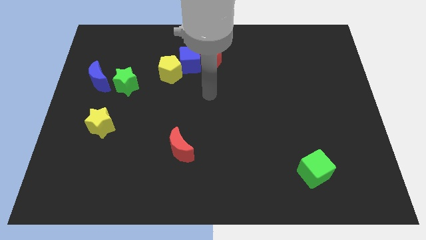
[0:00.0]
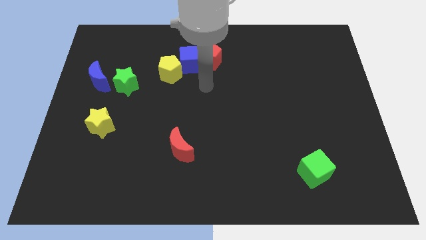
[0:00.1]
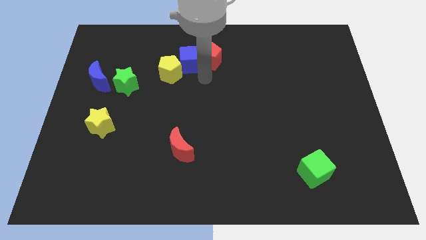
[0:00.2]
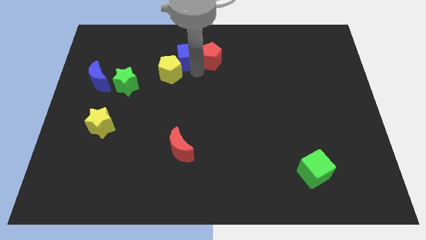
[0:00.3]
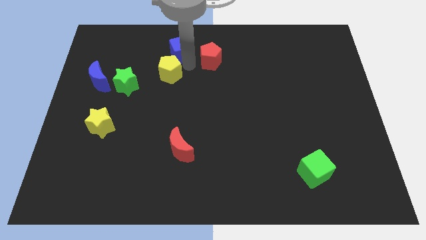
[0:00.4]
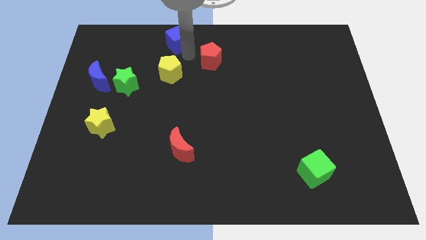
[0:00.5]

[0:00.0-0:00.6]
pull the red pentagon apart from the blue cube

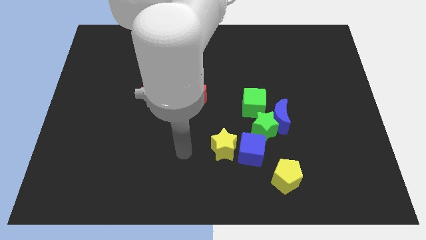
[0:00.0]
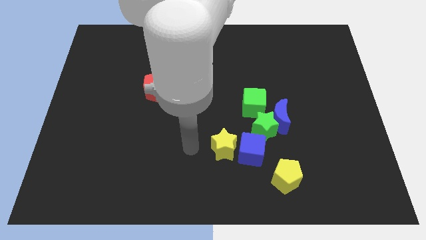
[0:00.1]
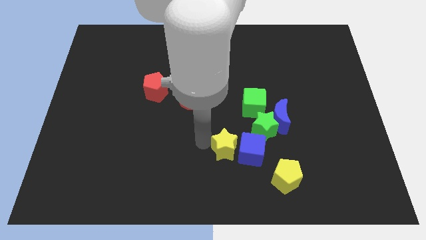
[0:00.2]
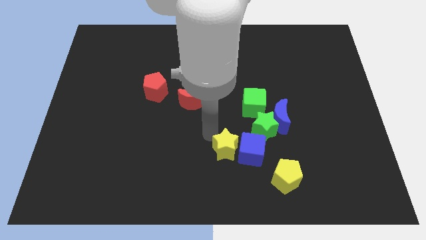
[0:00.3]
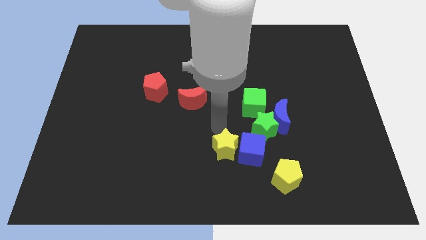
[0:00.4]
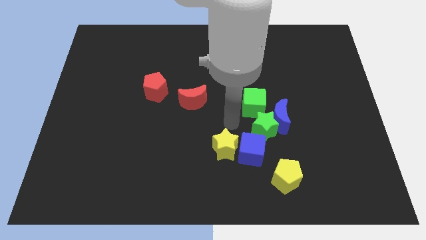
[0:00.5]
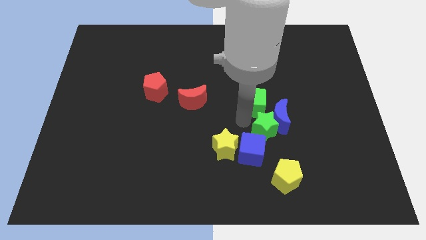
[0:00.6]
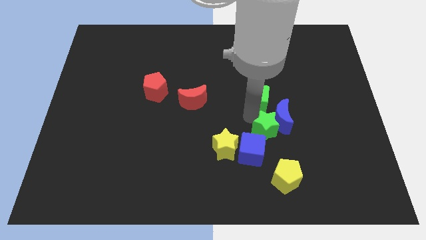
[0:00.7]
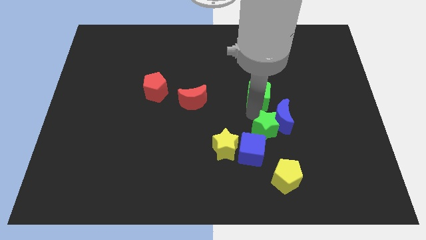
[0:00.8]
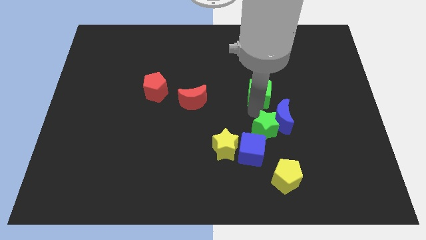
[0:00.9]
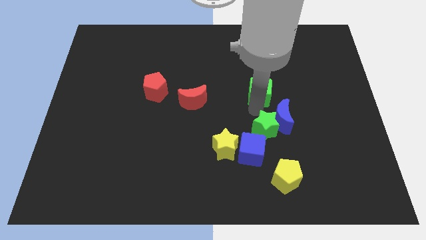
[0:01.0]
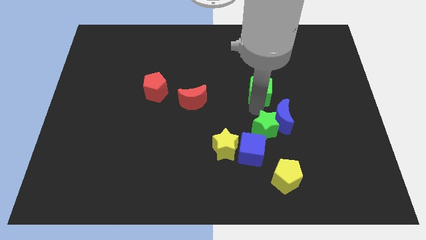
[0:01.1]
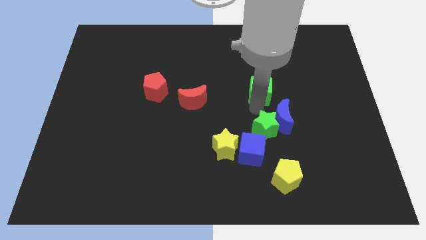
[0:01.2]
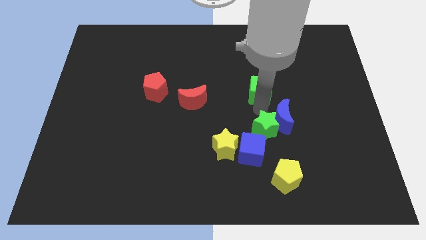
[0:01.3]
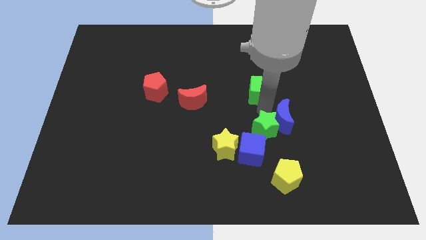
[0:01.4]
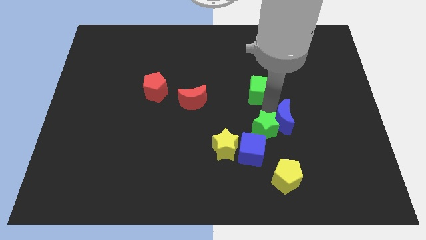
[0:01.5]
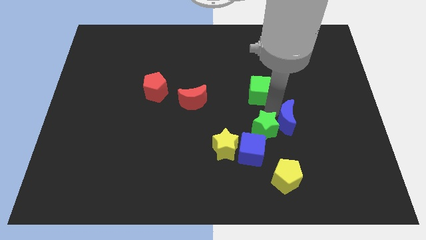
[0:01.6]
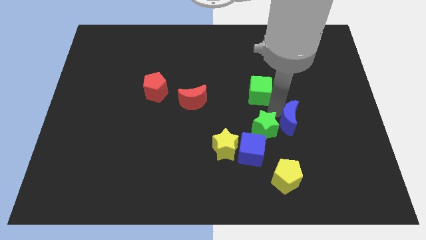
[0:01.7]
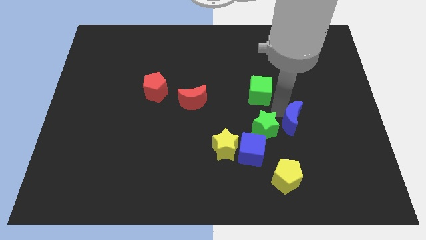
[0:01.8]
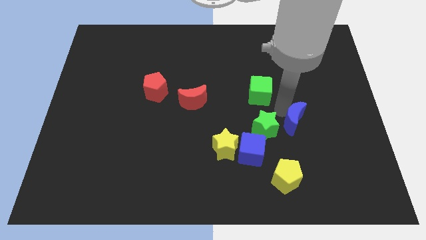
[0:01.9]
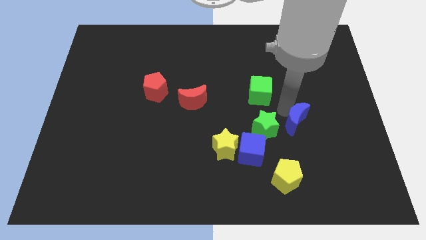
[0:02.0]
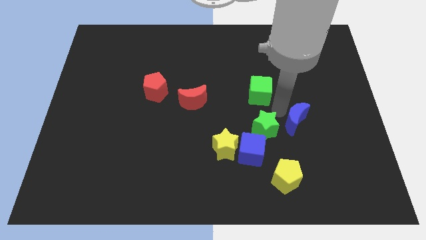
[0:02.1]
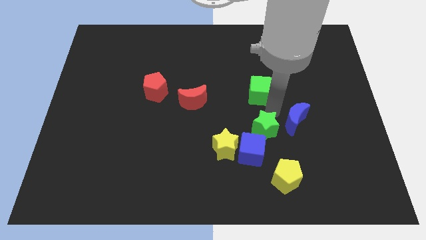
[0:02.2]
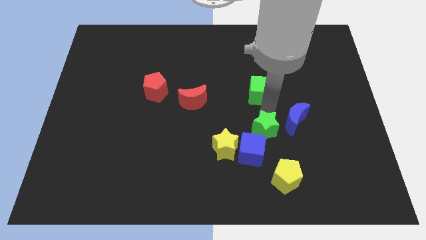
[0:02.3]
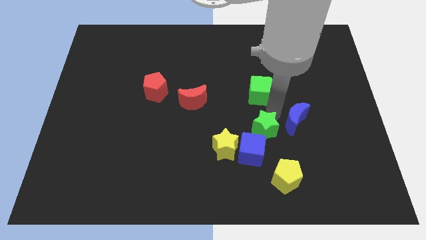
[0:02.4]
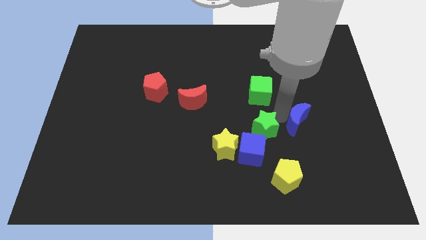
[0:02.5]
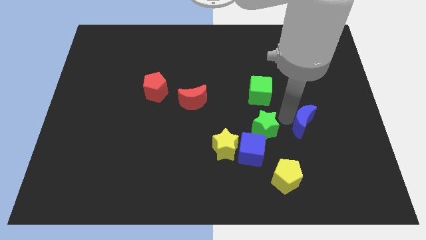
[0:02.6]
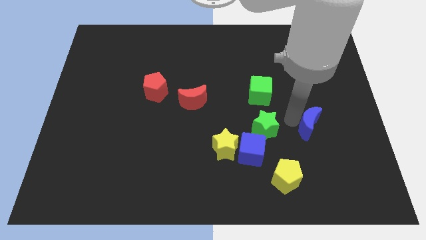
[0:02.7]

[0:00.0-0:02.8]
separate the blue moon from the green star and green cube

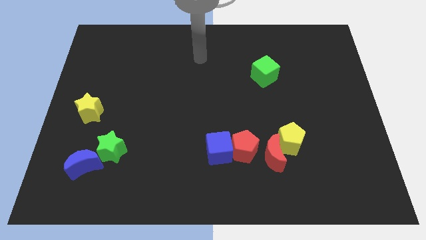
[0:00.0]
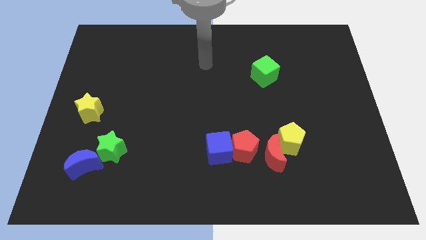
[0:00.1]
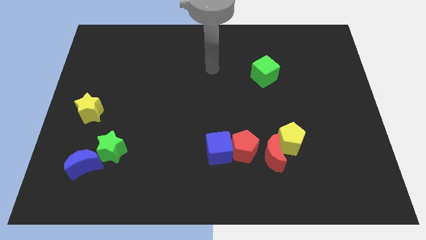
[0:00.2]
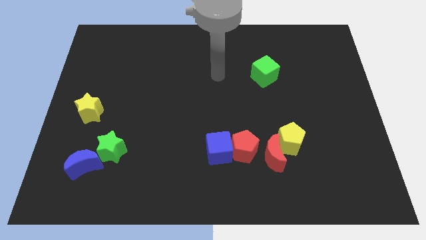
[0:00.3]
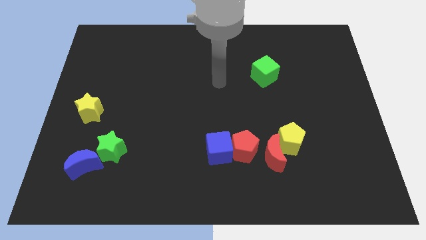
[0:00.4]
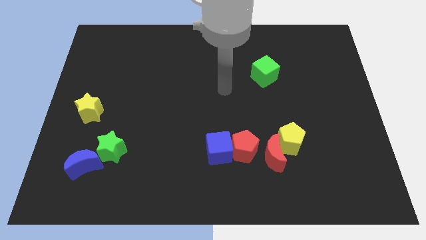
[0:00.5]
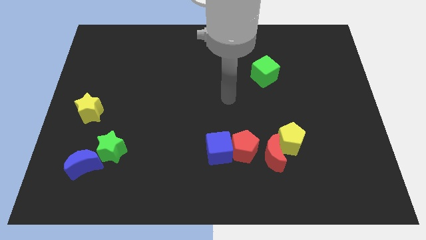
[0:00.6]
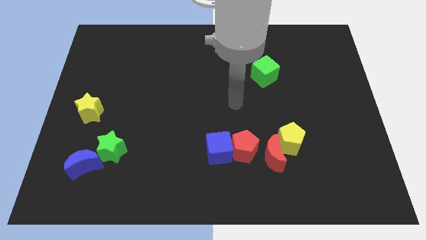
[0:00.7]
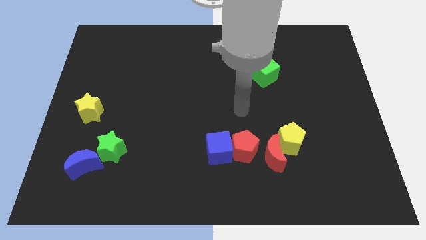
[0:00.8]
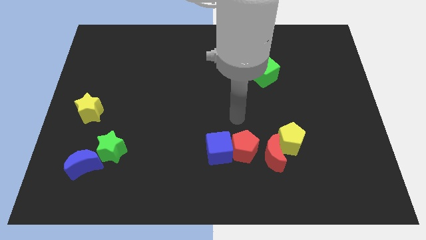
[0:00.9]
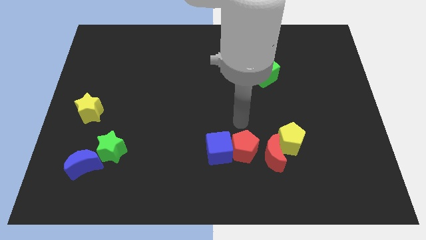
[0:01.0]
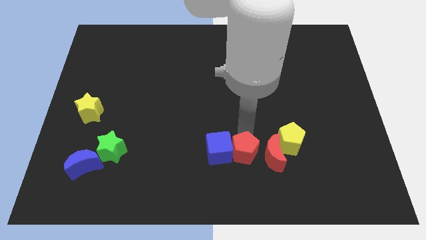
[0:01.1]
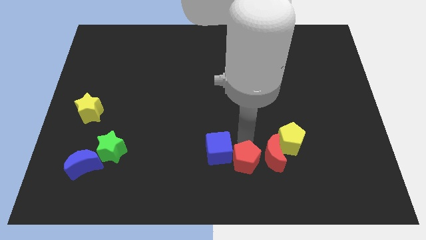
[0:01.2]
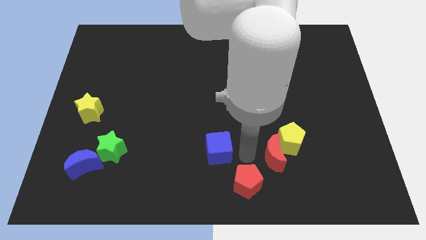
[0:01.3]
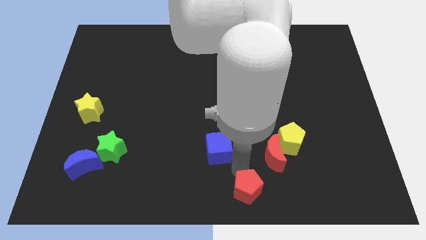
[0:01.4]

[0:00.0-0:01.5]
pull the blue cube apart from the red pentagon

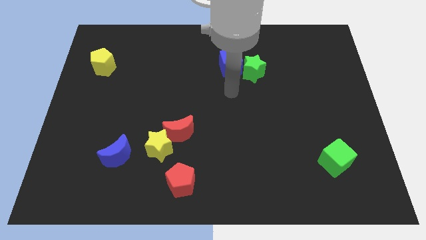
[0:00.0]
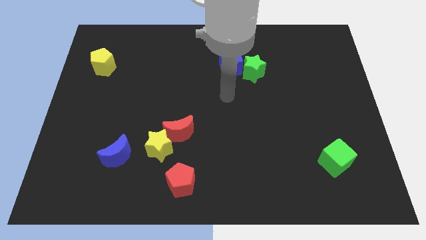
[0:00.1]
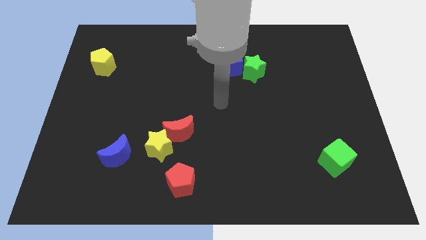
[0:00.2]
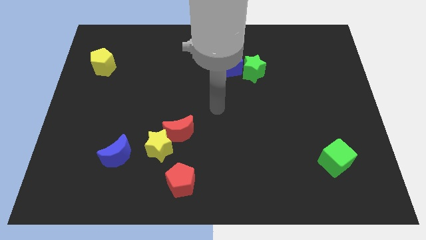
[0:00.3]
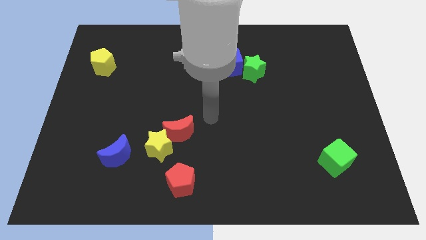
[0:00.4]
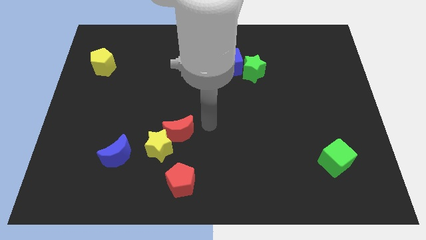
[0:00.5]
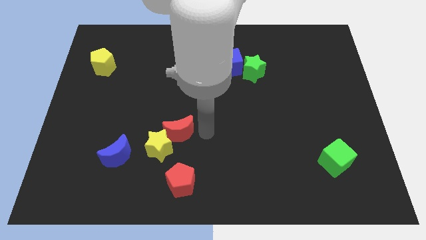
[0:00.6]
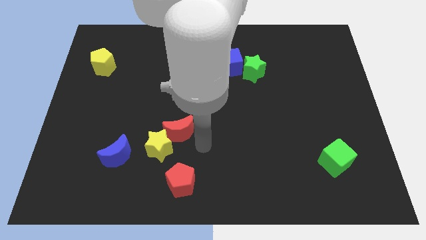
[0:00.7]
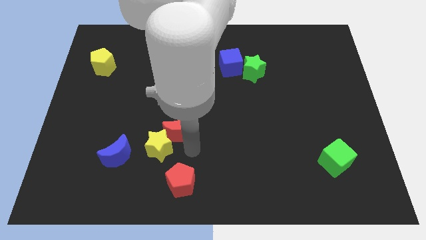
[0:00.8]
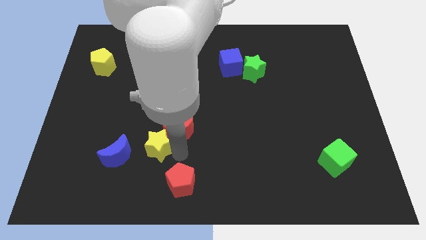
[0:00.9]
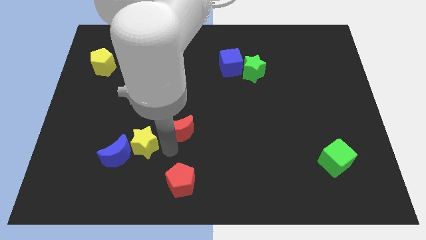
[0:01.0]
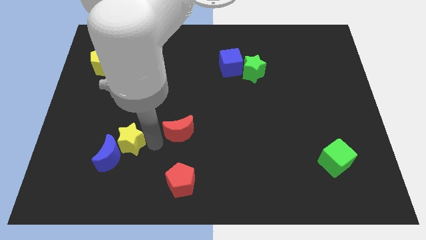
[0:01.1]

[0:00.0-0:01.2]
move the red moon away from the yellow star

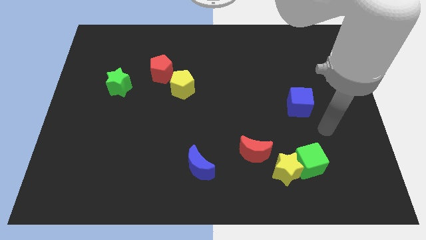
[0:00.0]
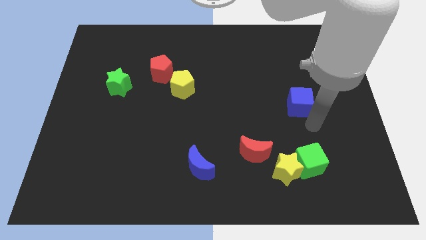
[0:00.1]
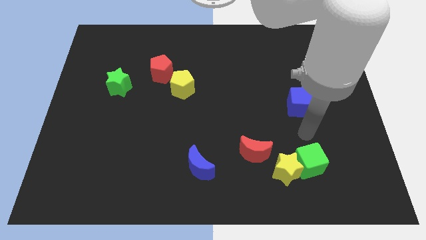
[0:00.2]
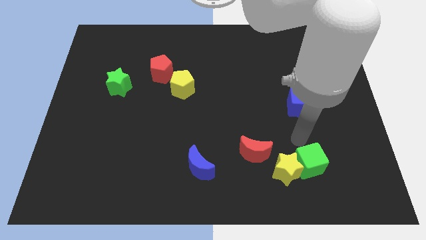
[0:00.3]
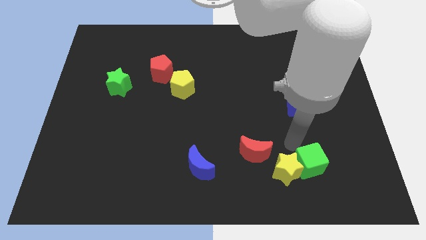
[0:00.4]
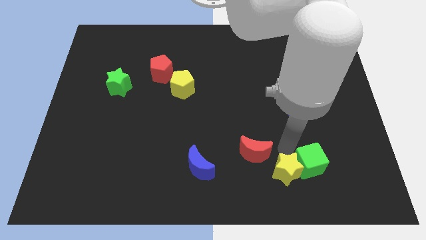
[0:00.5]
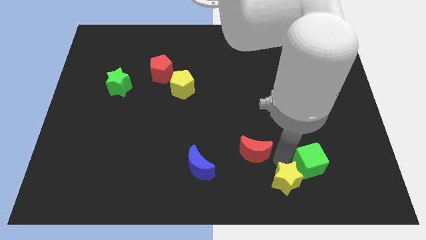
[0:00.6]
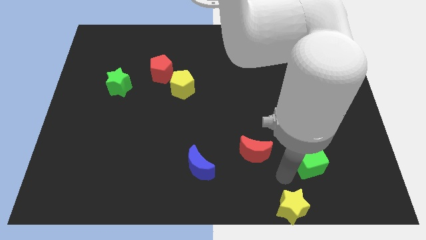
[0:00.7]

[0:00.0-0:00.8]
move the green cube away from the yellow star

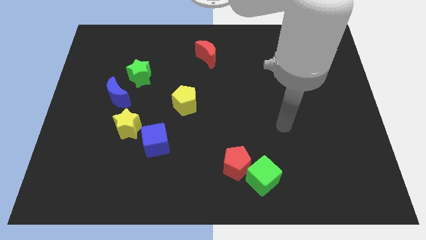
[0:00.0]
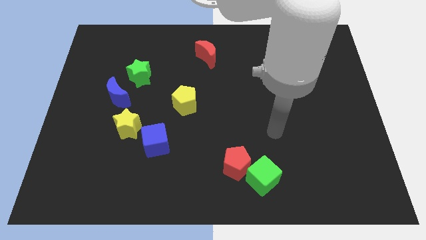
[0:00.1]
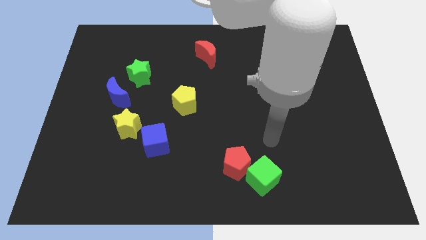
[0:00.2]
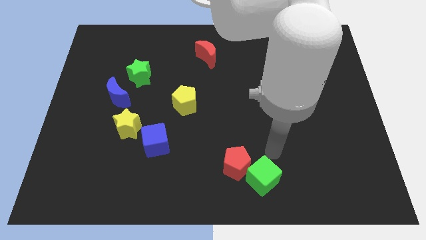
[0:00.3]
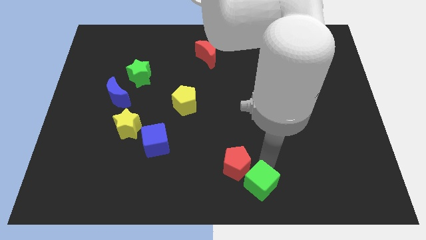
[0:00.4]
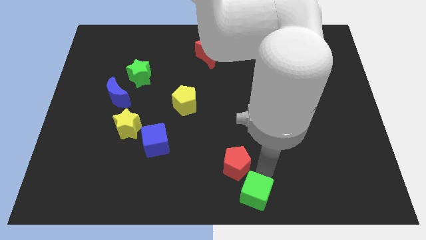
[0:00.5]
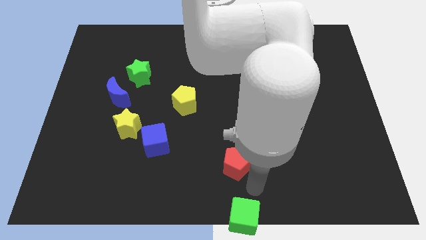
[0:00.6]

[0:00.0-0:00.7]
move the red pentagon away from the green cube

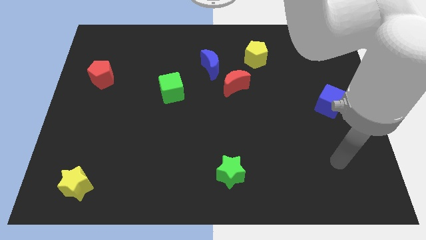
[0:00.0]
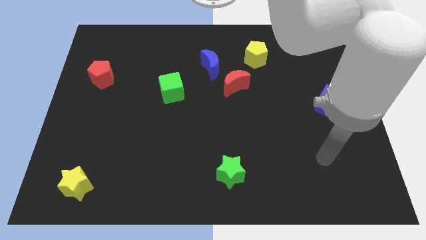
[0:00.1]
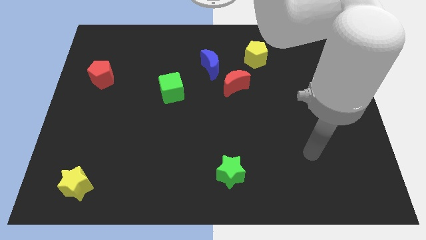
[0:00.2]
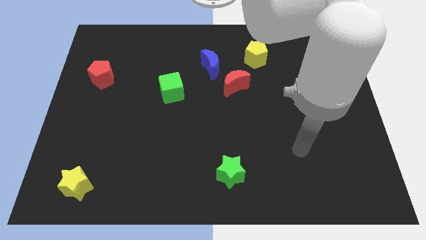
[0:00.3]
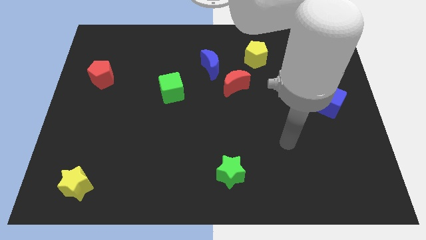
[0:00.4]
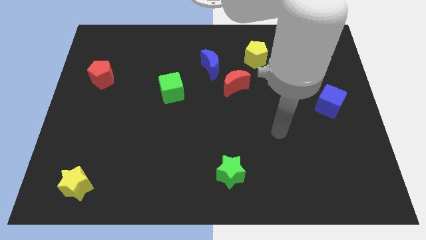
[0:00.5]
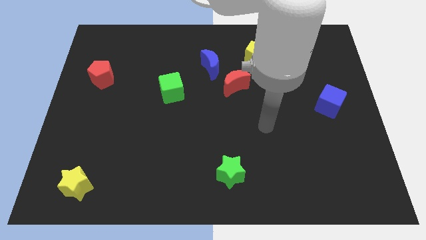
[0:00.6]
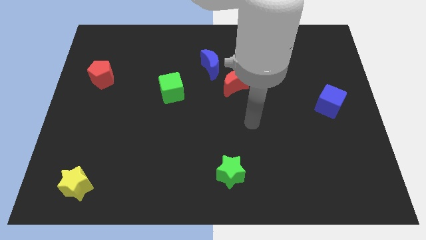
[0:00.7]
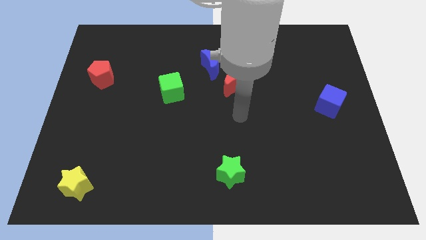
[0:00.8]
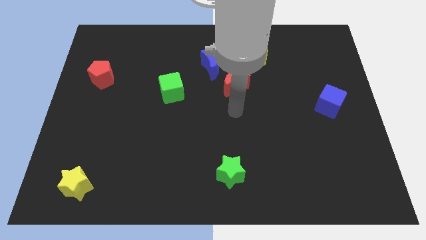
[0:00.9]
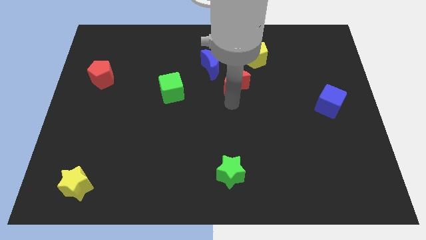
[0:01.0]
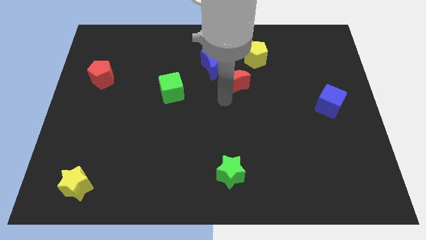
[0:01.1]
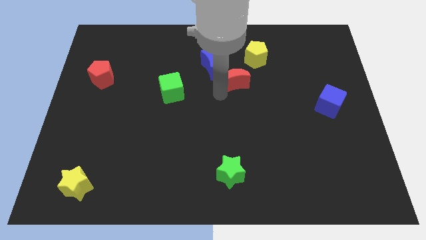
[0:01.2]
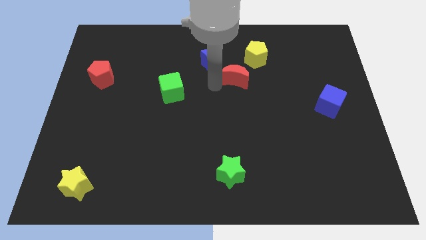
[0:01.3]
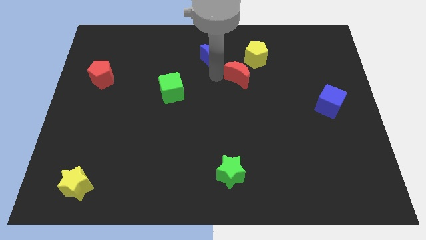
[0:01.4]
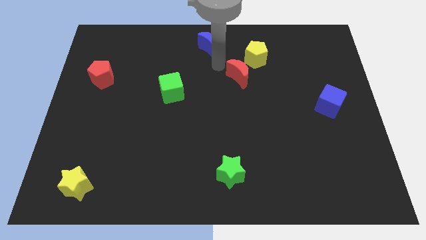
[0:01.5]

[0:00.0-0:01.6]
pull the red moon apart from the blue moon
